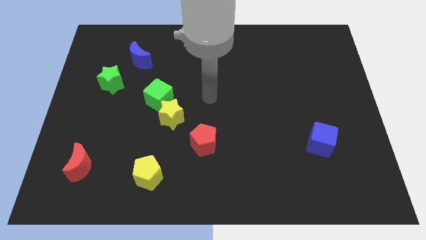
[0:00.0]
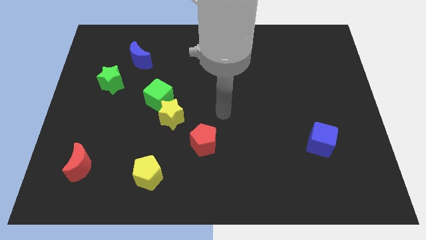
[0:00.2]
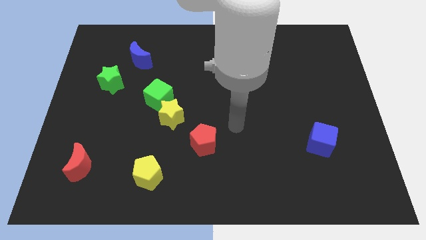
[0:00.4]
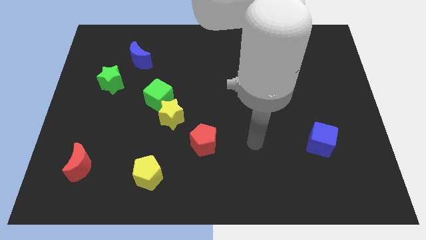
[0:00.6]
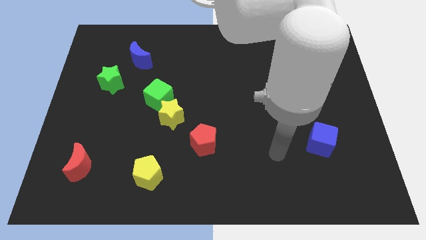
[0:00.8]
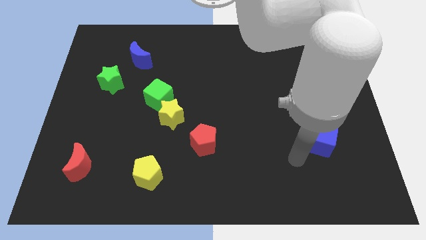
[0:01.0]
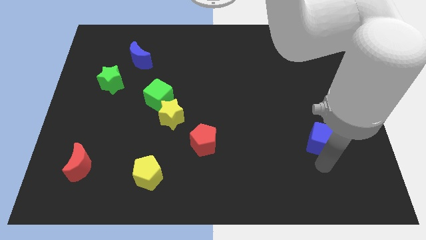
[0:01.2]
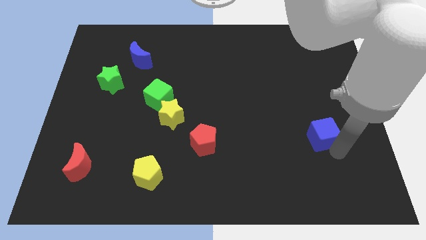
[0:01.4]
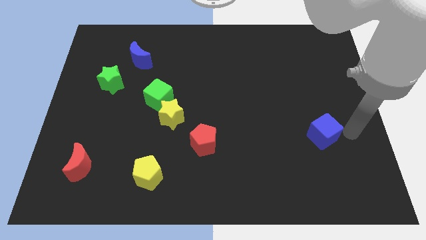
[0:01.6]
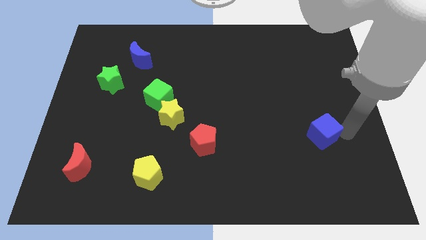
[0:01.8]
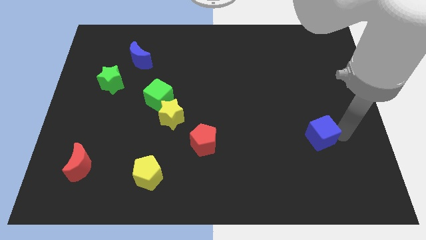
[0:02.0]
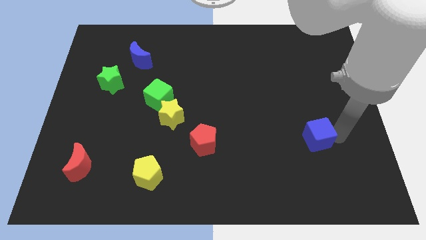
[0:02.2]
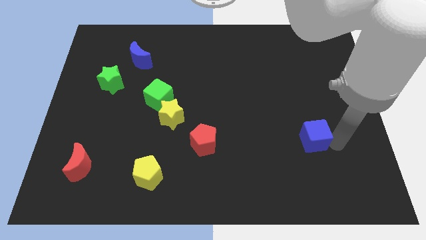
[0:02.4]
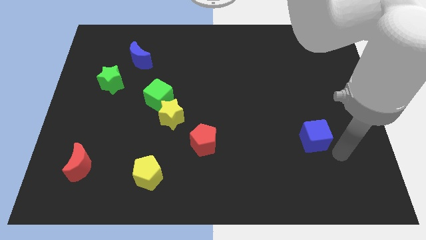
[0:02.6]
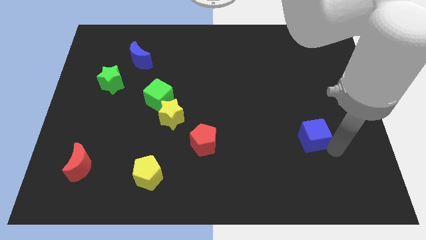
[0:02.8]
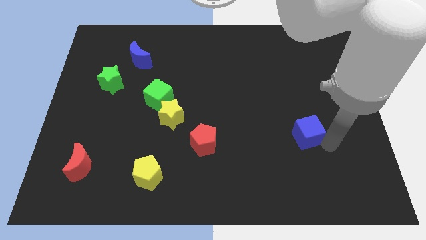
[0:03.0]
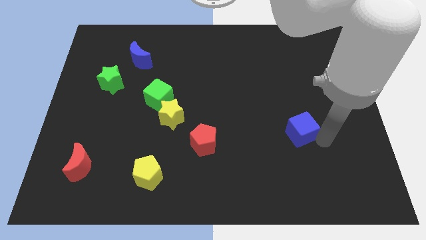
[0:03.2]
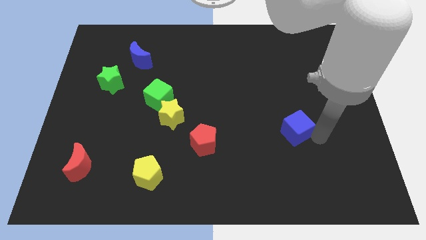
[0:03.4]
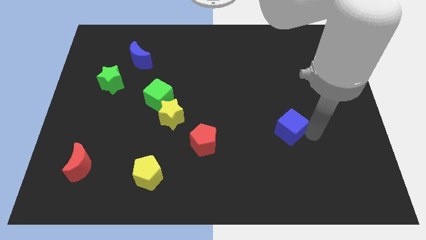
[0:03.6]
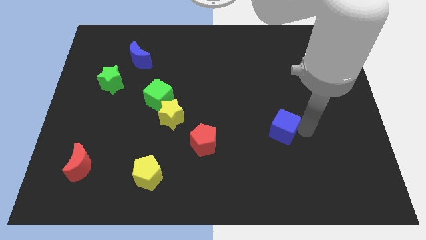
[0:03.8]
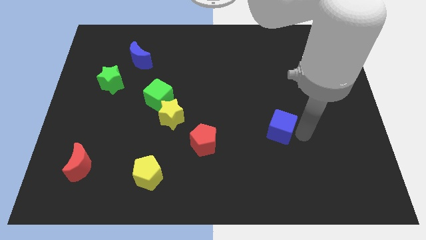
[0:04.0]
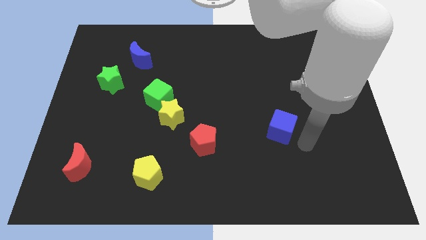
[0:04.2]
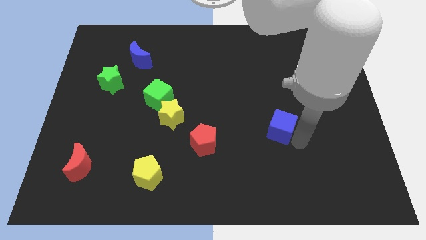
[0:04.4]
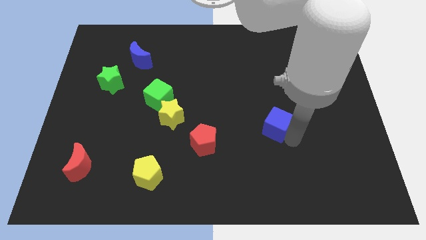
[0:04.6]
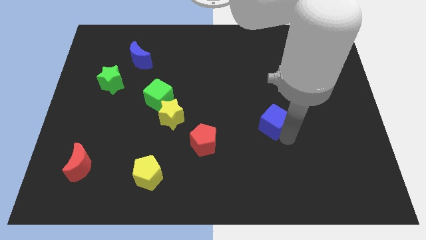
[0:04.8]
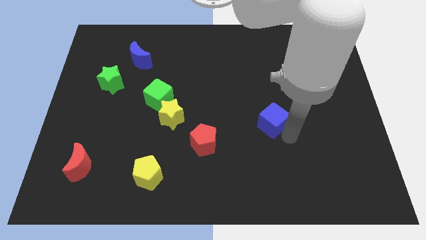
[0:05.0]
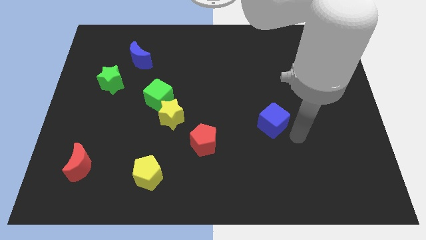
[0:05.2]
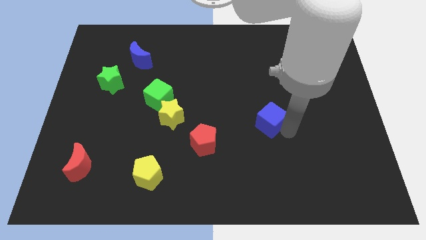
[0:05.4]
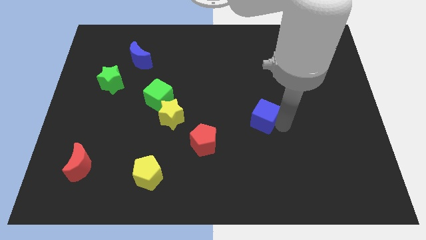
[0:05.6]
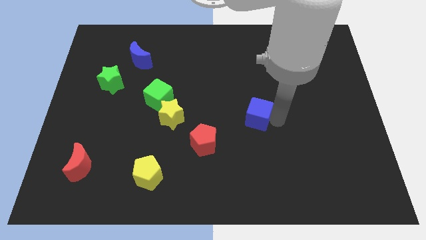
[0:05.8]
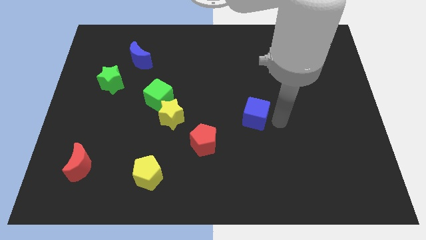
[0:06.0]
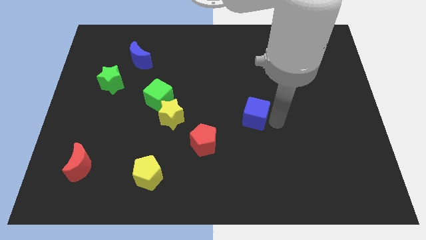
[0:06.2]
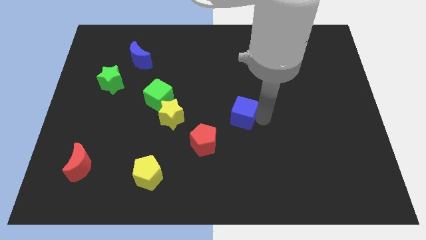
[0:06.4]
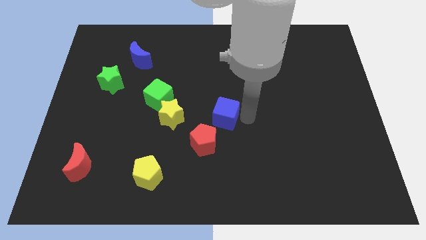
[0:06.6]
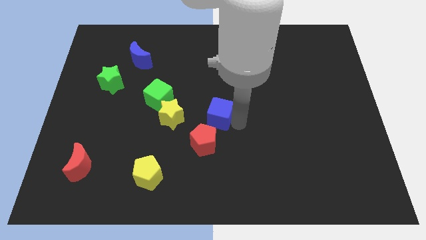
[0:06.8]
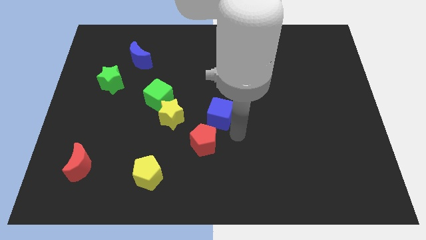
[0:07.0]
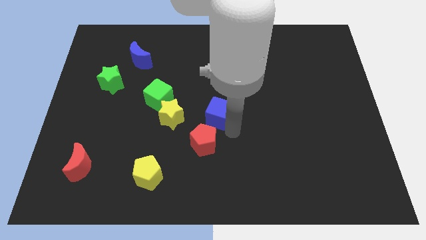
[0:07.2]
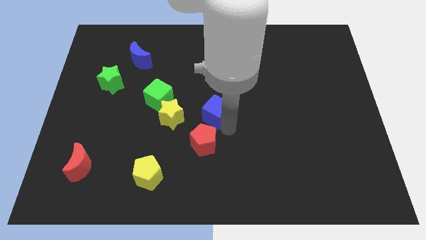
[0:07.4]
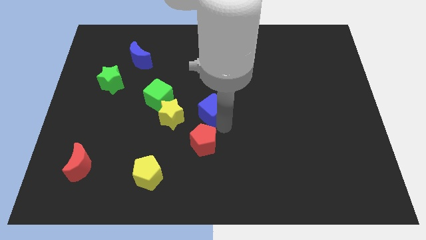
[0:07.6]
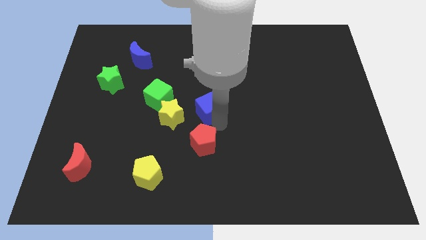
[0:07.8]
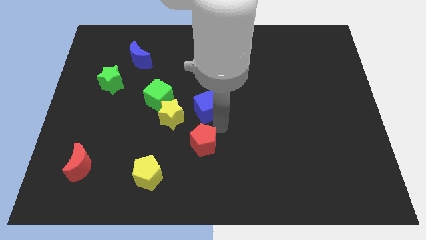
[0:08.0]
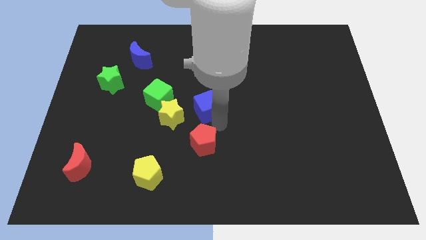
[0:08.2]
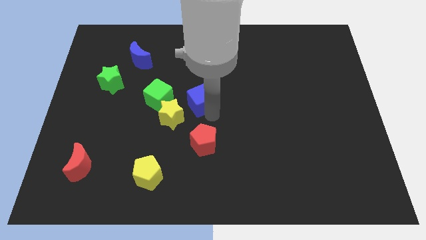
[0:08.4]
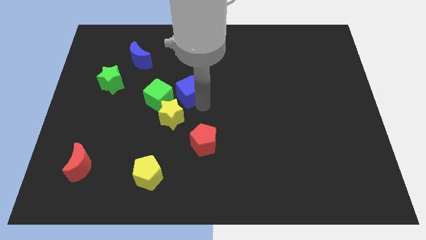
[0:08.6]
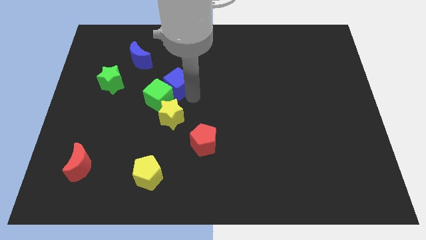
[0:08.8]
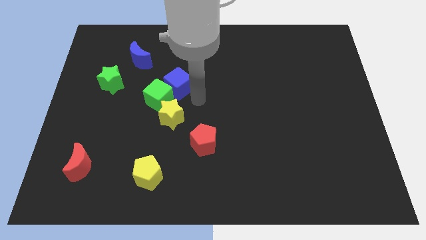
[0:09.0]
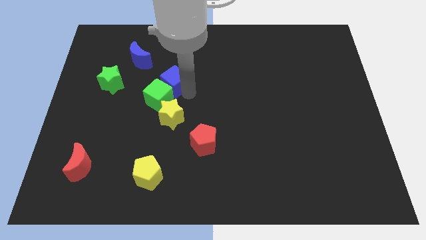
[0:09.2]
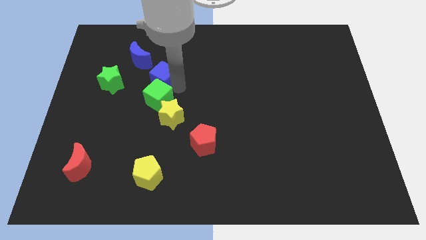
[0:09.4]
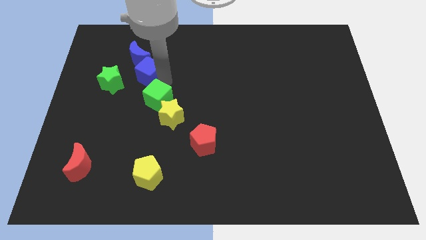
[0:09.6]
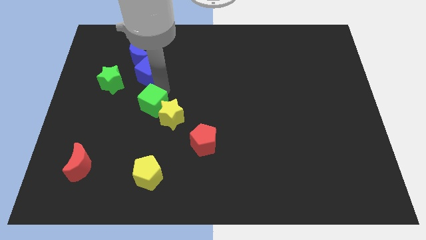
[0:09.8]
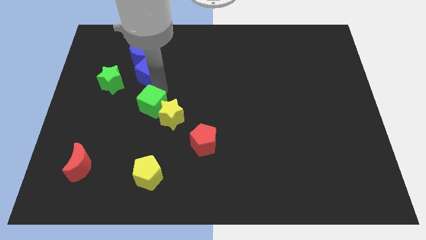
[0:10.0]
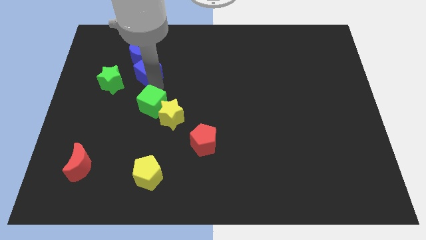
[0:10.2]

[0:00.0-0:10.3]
push the blue cube towards the blue moon

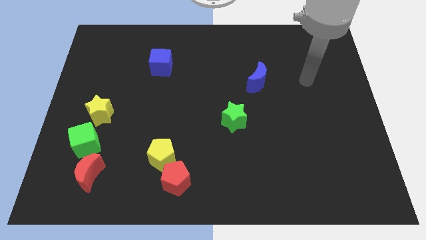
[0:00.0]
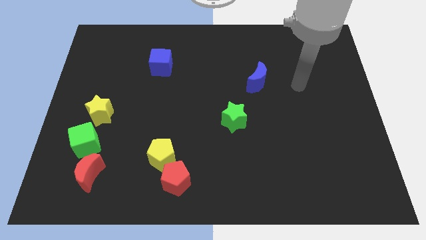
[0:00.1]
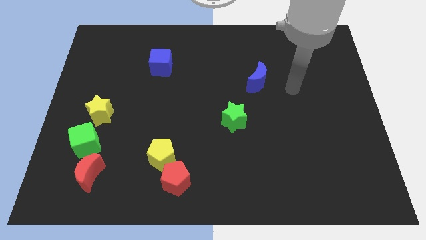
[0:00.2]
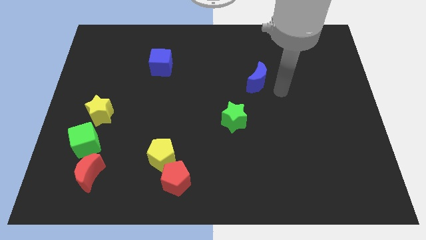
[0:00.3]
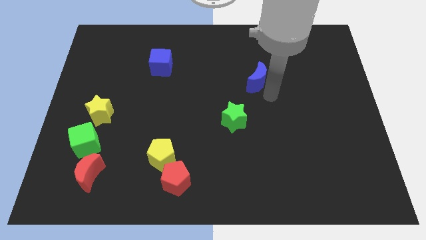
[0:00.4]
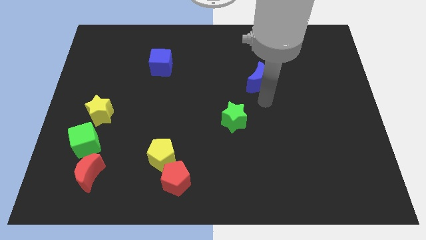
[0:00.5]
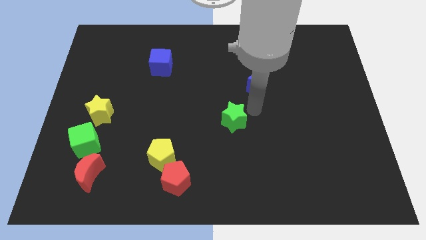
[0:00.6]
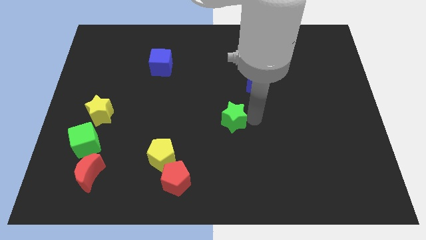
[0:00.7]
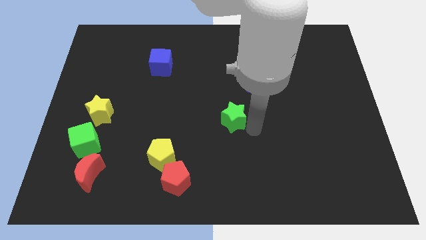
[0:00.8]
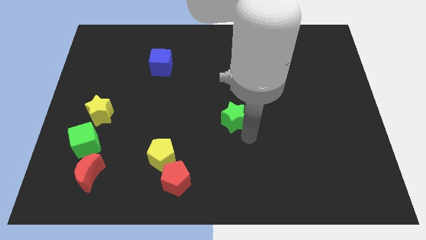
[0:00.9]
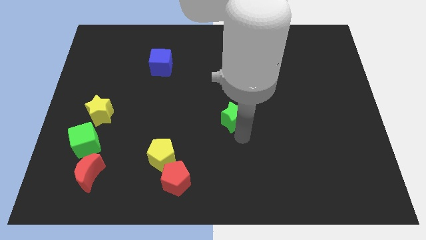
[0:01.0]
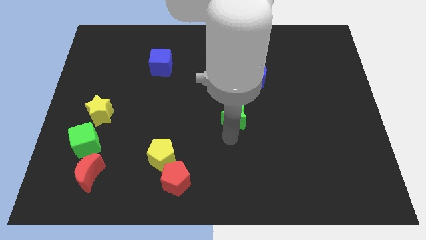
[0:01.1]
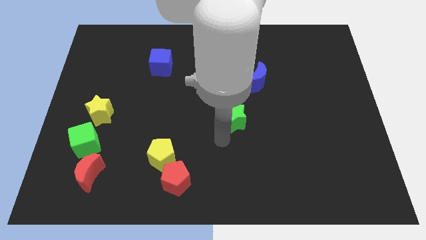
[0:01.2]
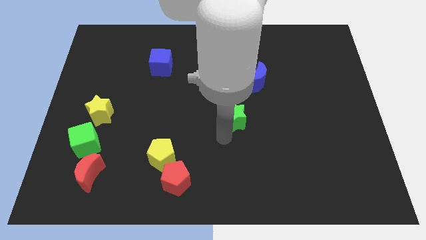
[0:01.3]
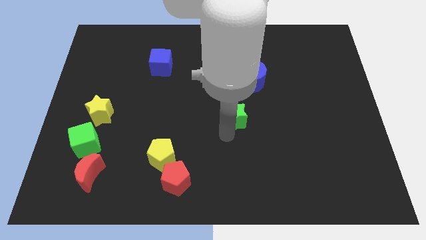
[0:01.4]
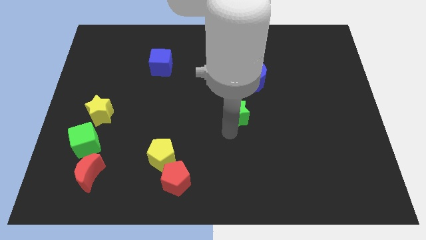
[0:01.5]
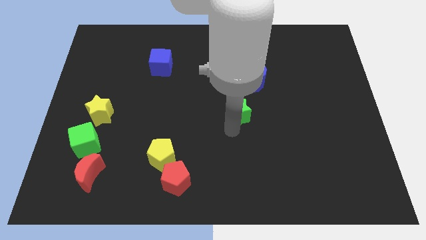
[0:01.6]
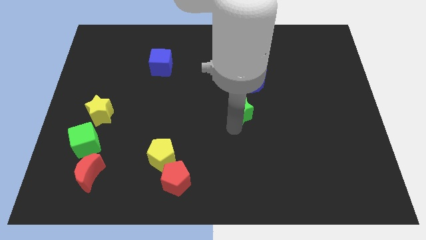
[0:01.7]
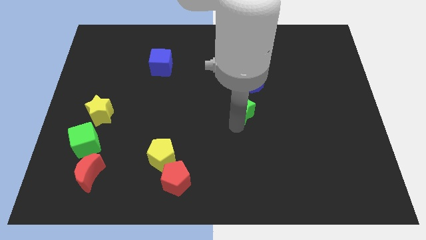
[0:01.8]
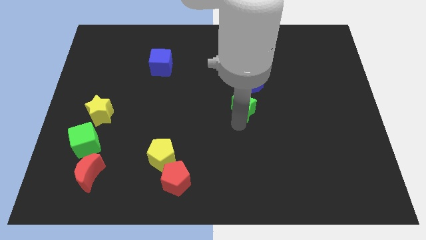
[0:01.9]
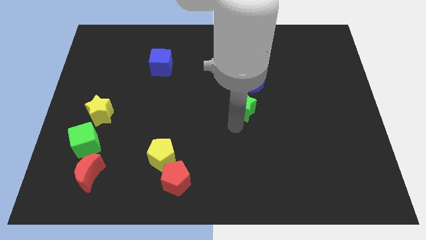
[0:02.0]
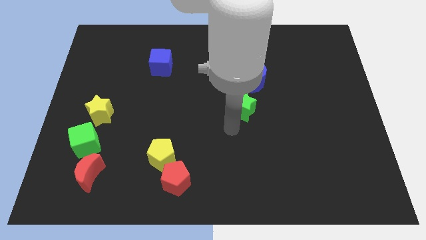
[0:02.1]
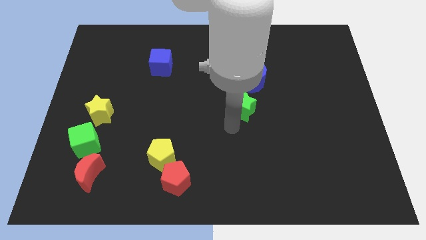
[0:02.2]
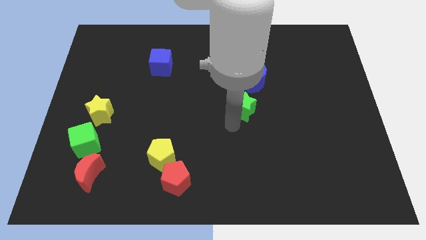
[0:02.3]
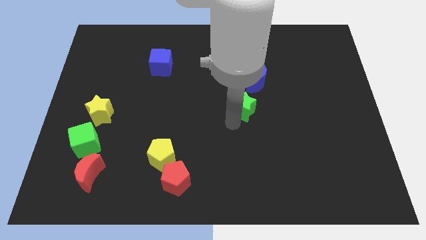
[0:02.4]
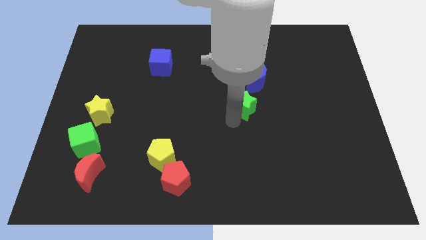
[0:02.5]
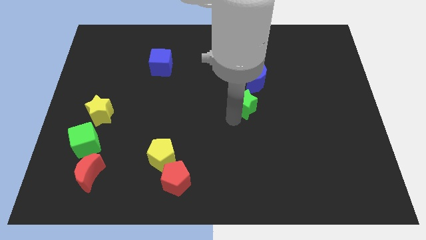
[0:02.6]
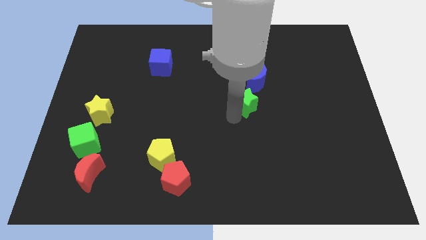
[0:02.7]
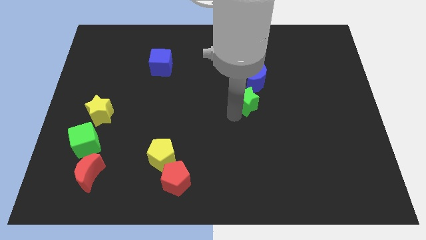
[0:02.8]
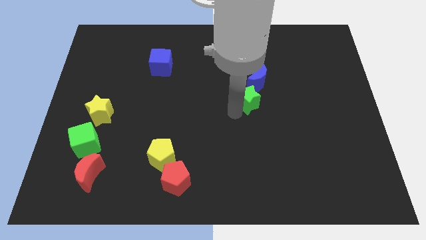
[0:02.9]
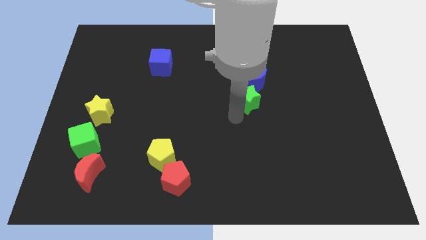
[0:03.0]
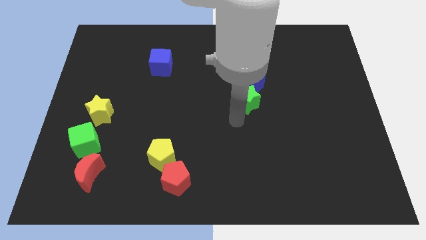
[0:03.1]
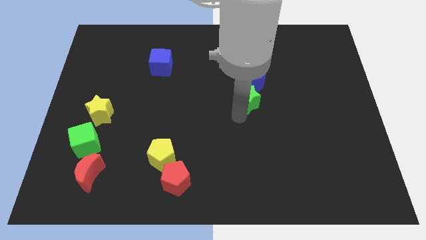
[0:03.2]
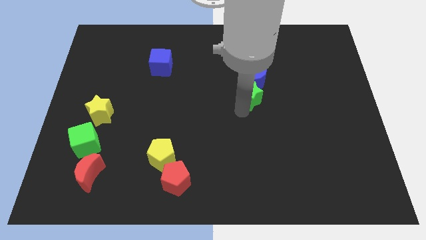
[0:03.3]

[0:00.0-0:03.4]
slide the green star close to the blue moon
